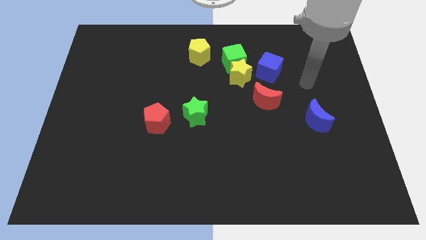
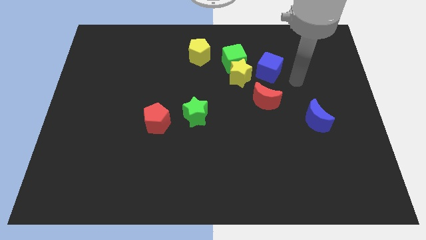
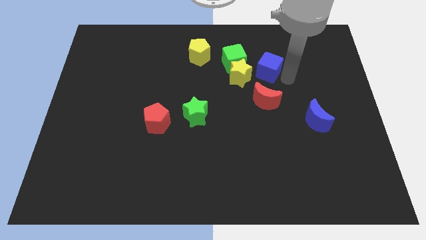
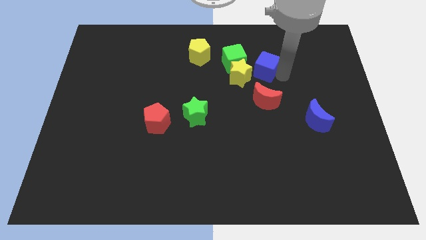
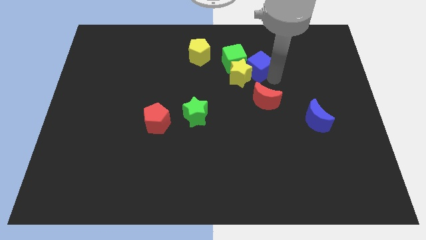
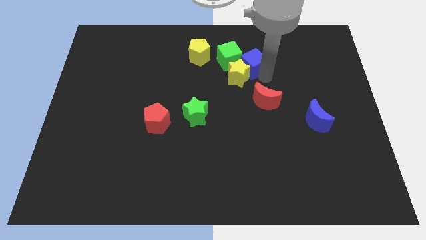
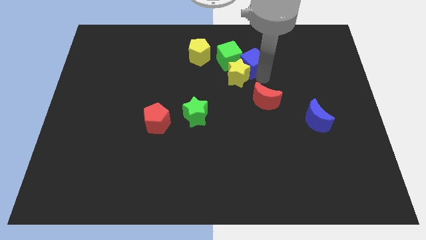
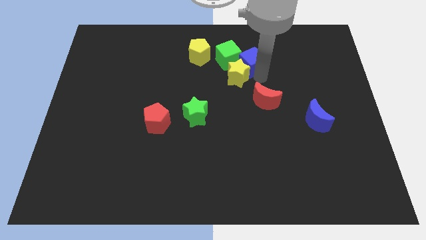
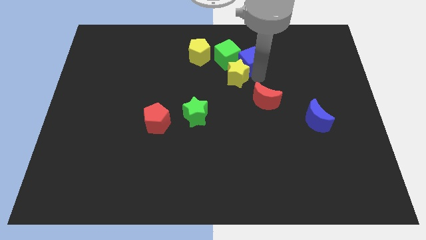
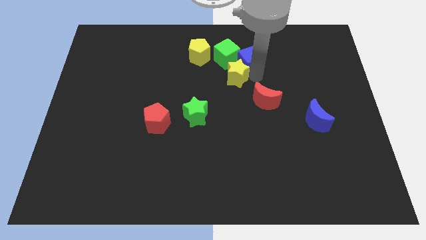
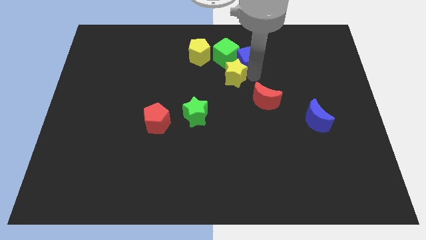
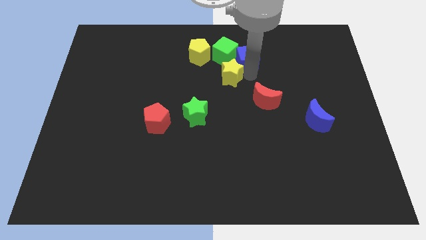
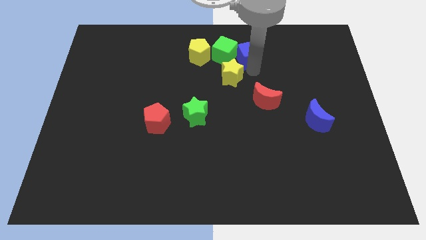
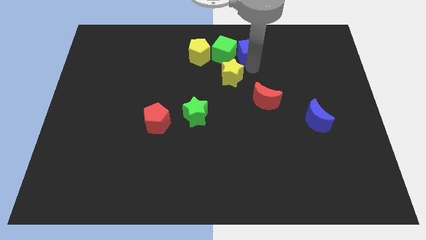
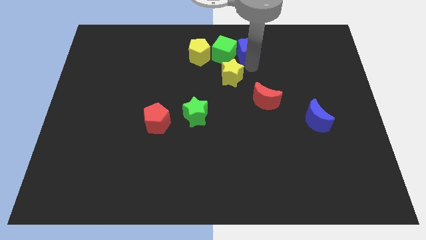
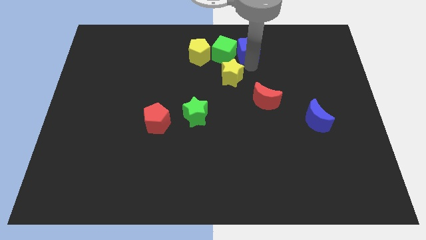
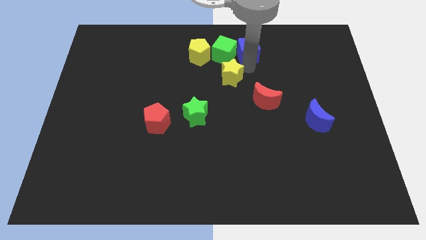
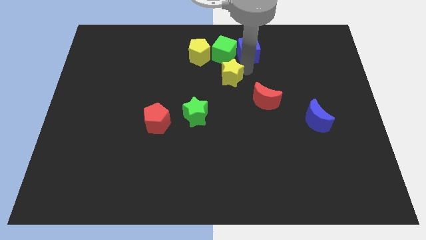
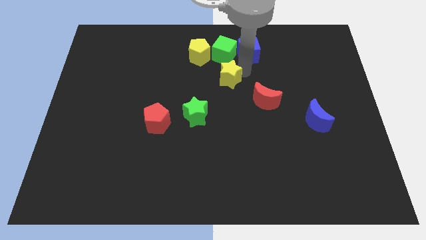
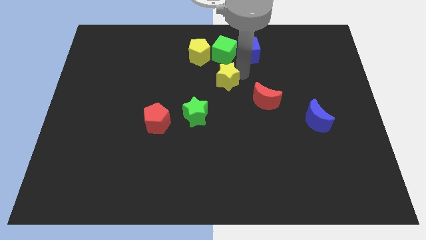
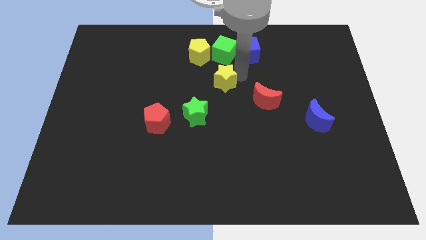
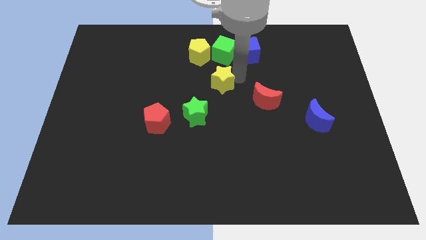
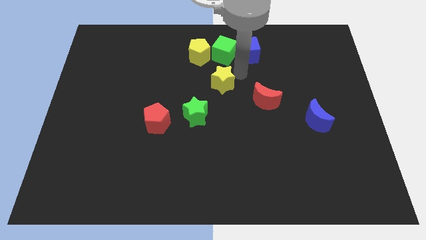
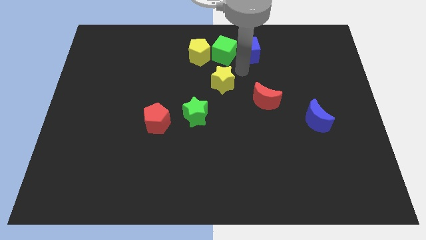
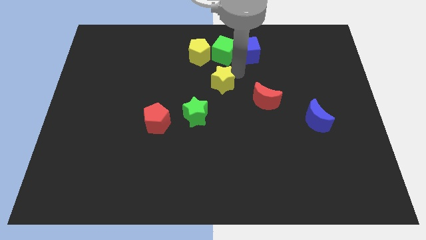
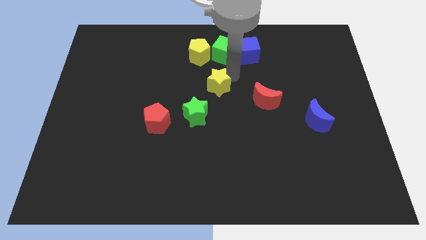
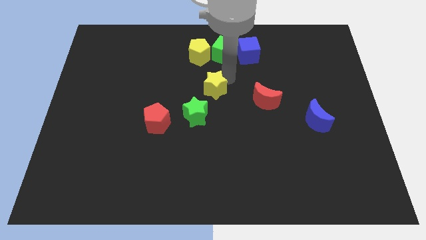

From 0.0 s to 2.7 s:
separate the yellow star from the clump

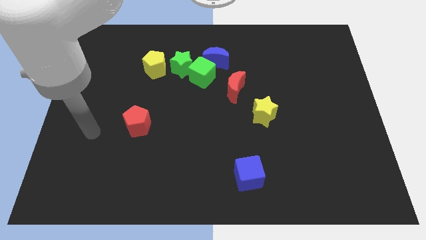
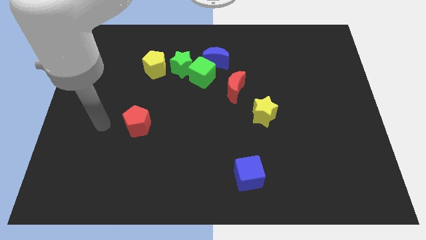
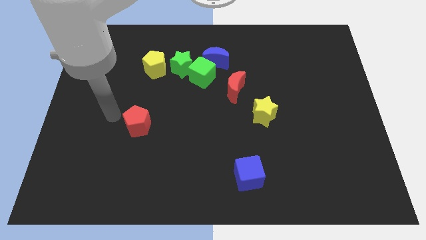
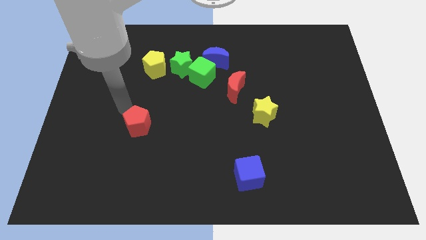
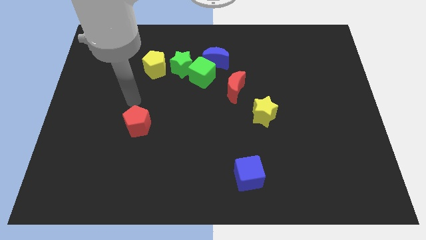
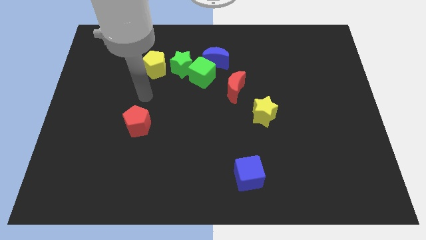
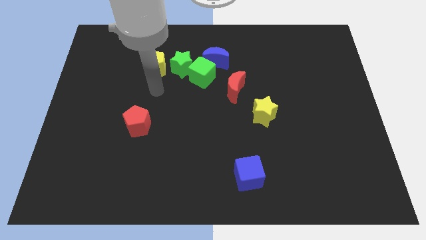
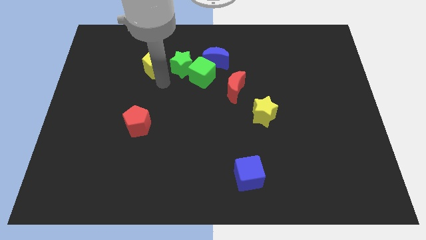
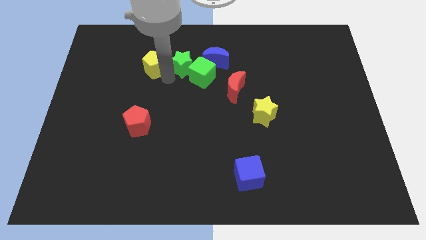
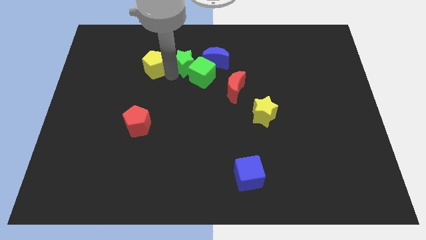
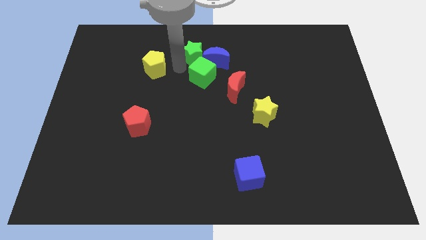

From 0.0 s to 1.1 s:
separate the yellow pentagon from the green star

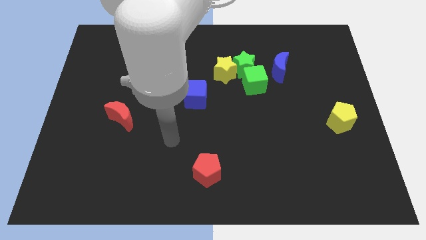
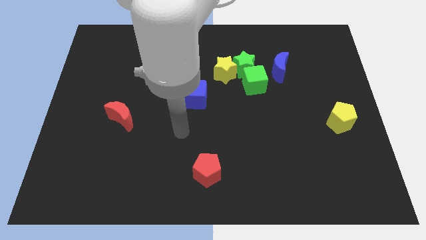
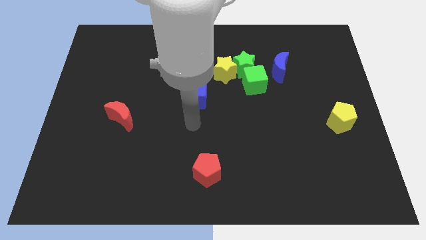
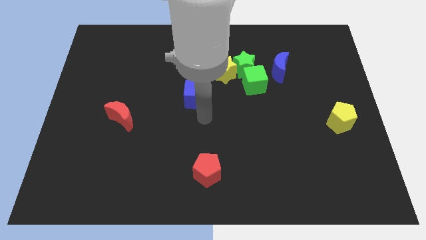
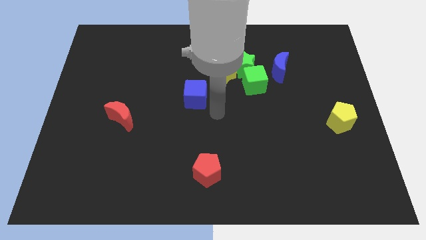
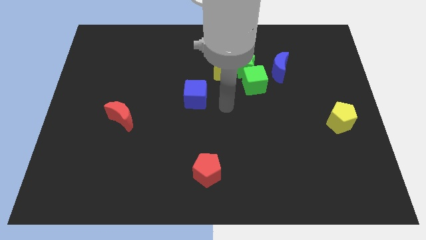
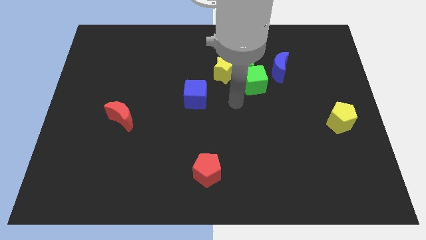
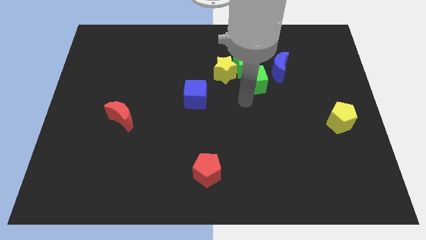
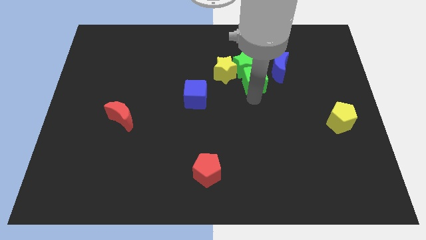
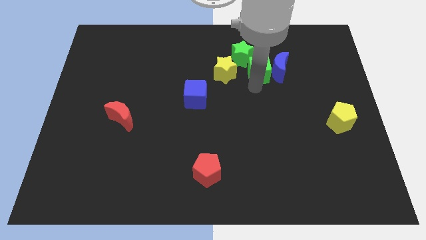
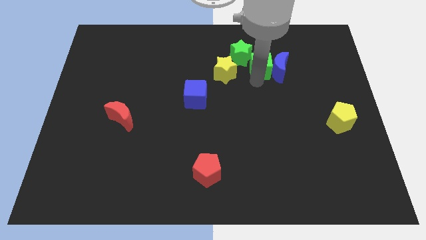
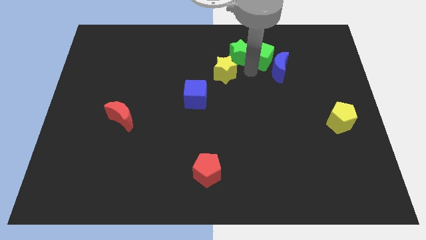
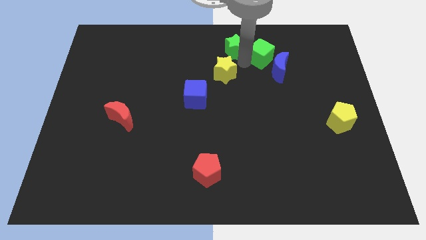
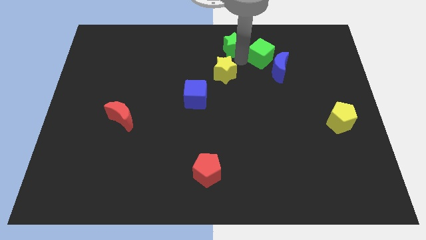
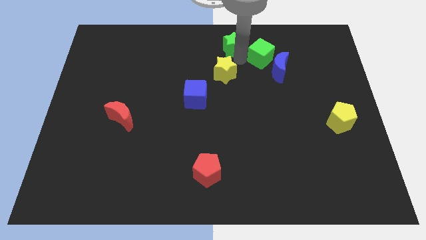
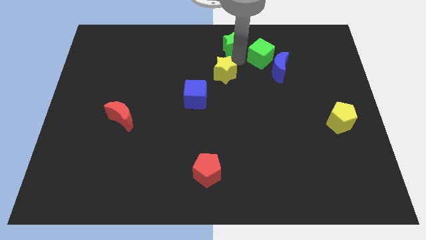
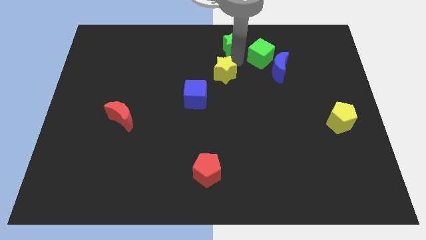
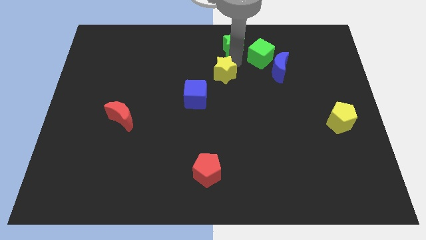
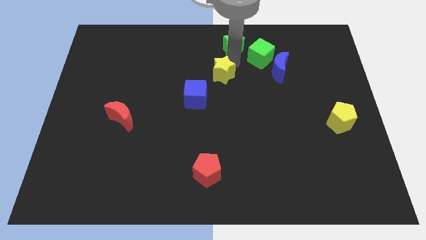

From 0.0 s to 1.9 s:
move the yellow star away from the green star and green cube

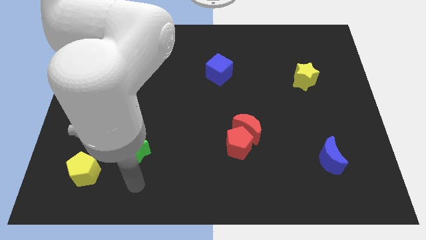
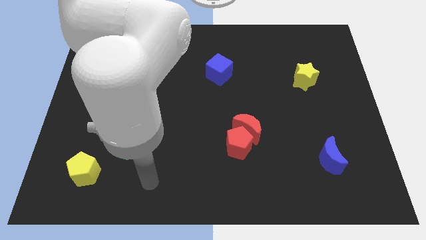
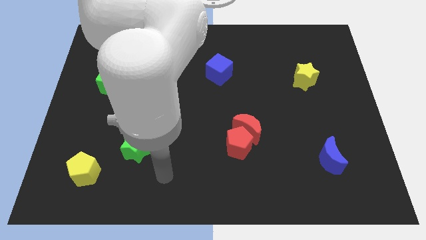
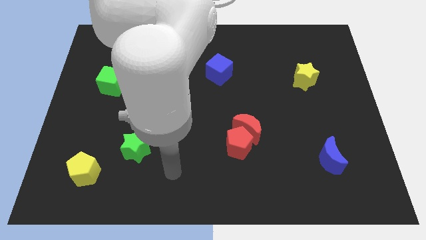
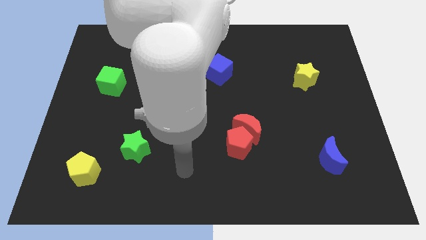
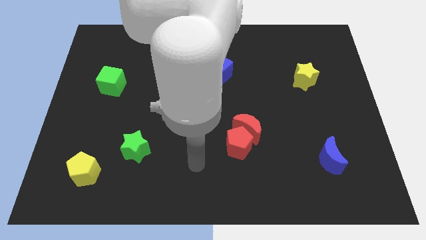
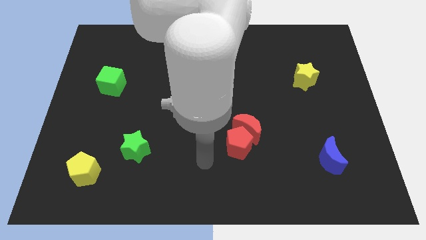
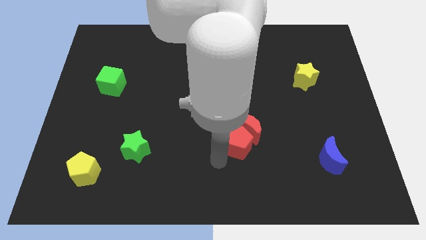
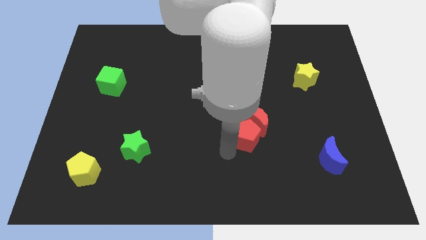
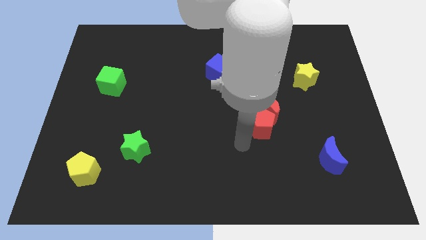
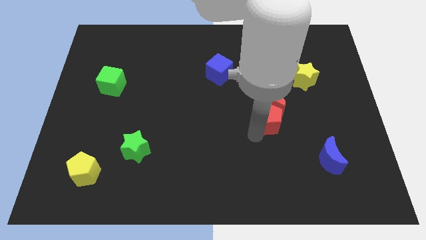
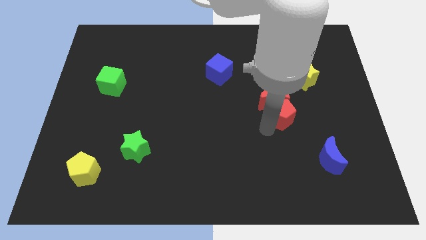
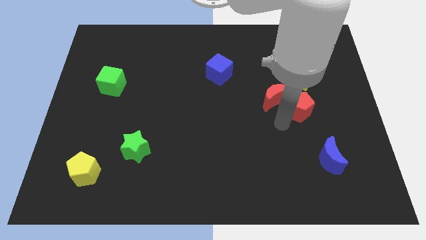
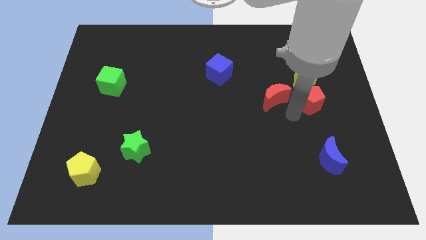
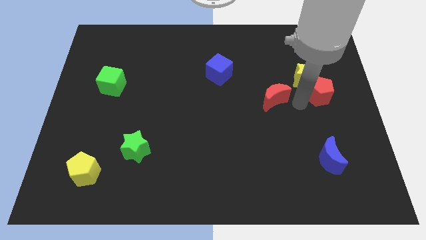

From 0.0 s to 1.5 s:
move the red moon away from the red pentagon

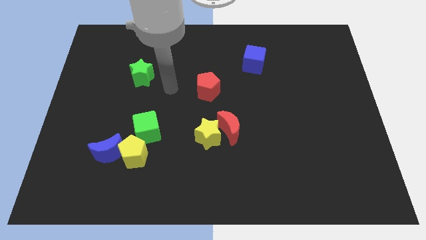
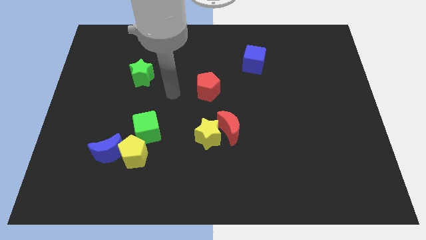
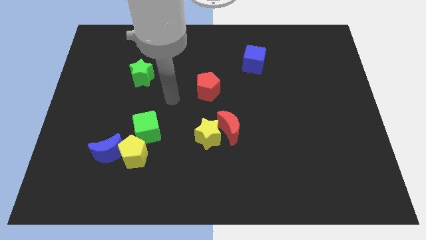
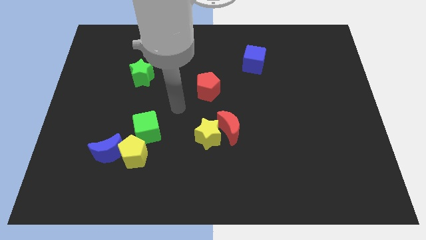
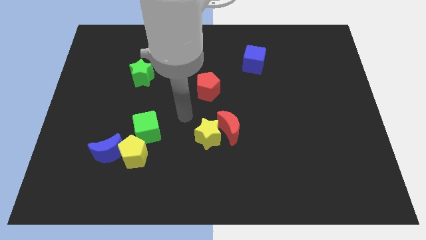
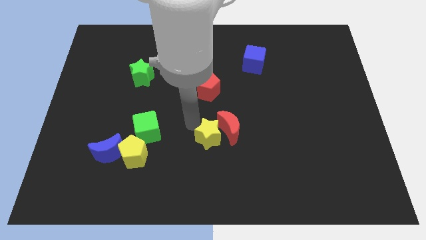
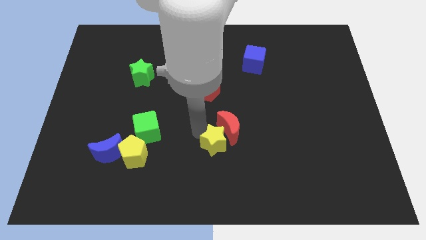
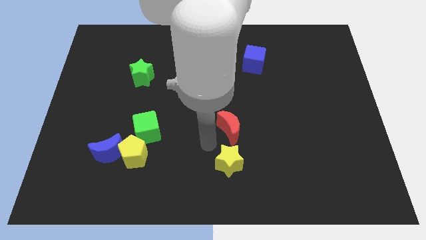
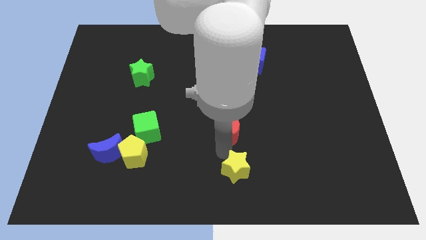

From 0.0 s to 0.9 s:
separate the red moon from the yellow star

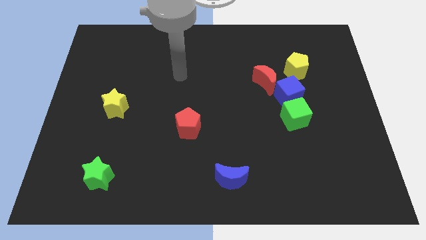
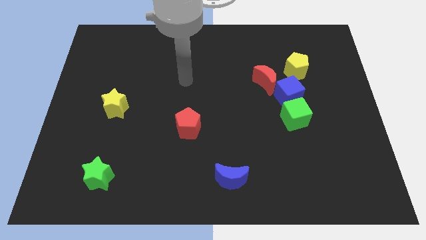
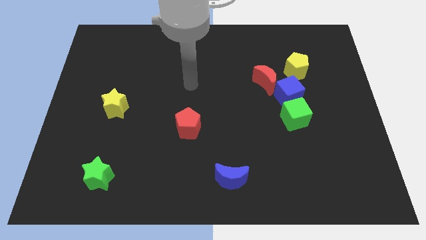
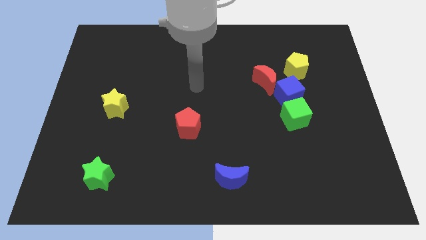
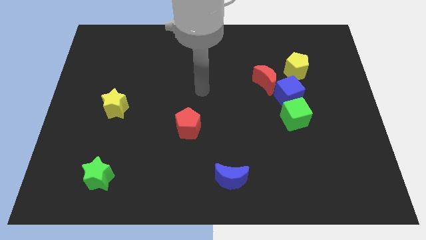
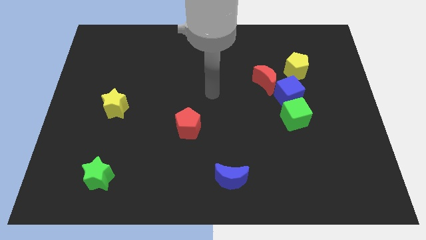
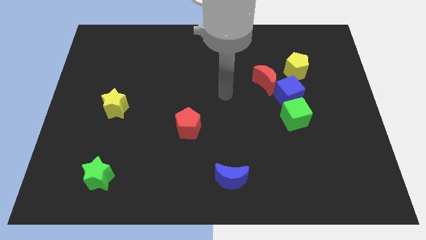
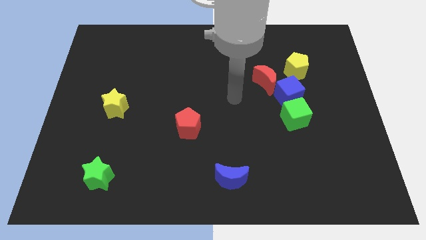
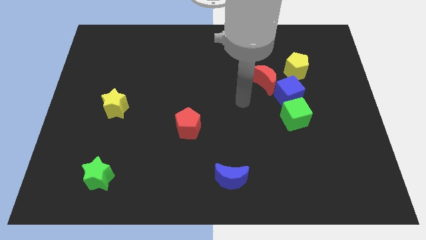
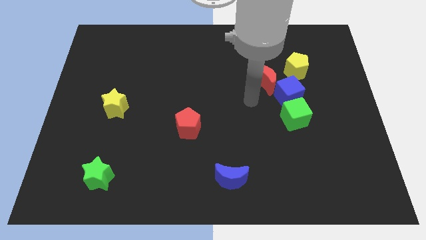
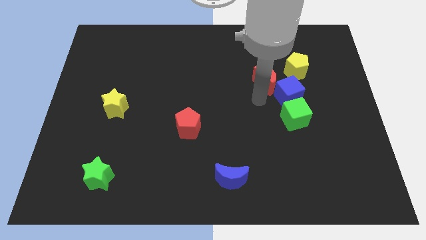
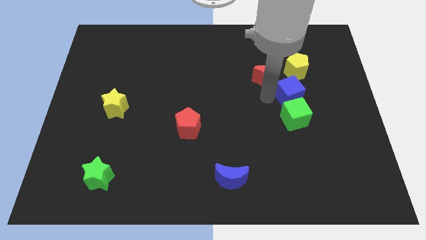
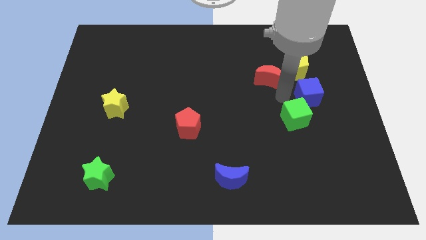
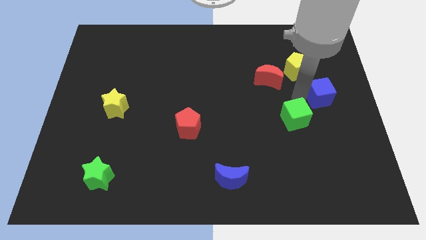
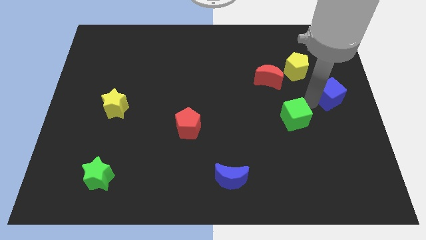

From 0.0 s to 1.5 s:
separate the green cube from the blue cube
